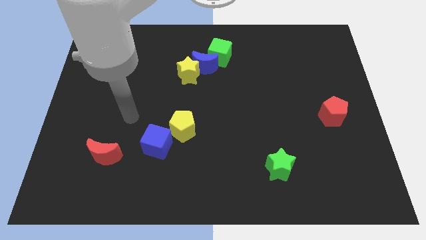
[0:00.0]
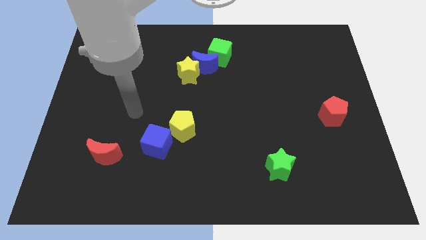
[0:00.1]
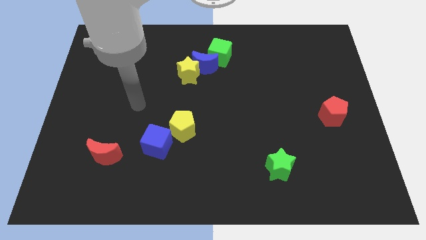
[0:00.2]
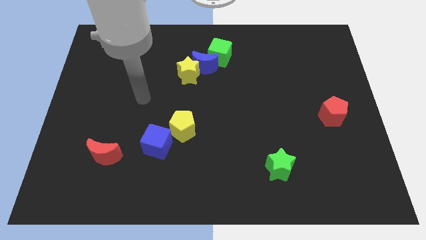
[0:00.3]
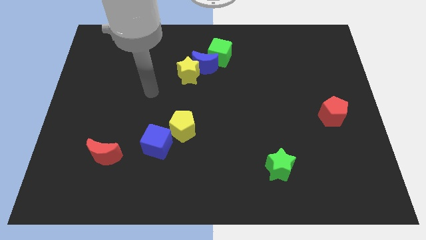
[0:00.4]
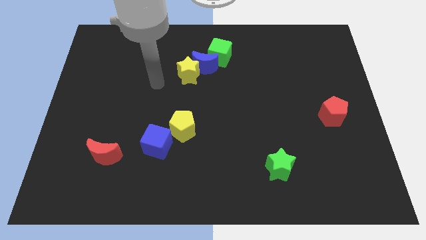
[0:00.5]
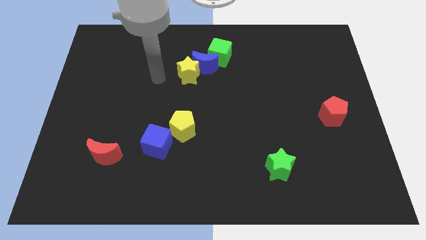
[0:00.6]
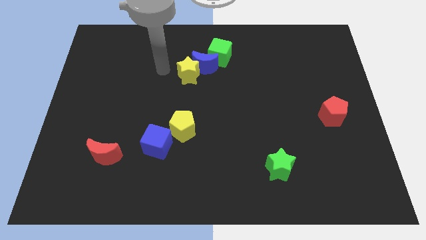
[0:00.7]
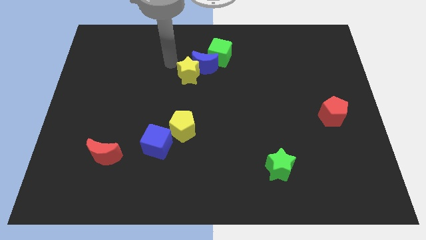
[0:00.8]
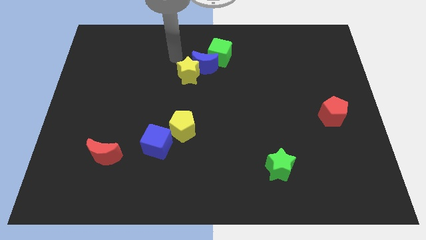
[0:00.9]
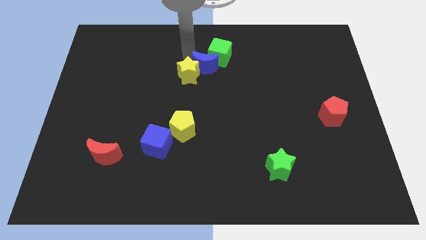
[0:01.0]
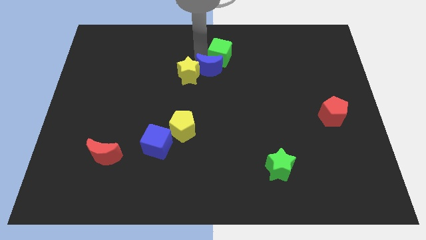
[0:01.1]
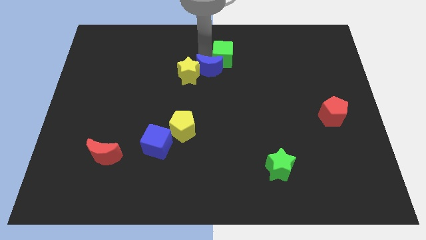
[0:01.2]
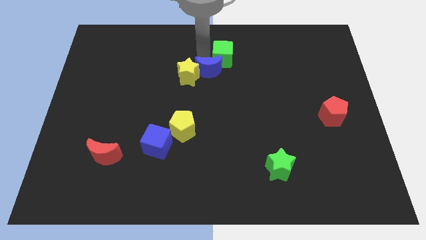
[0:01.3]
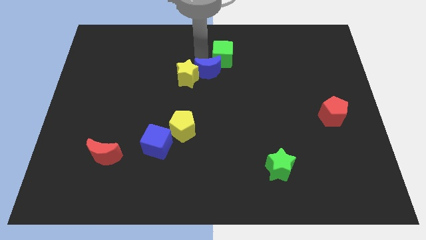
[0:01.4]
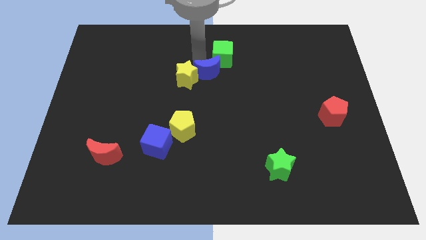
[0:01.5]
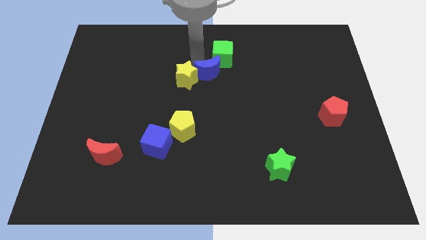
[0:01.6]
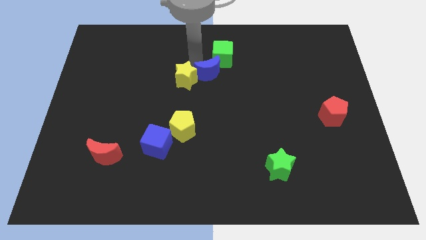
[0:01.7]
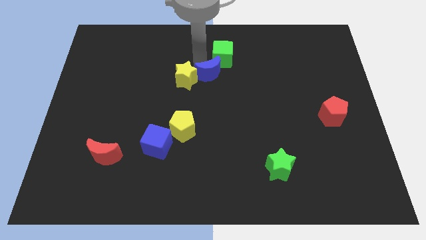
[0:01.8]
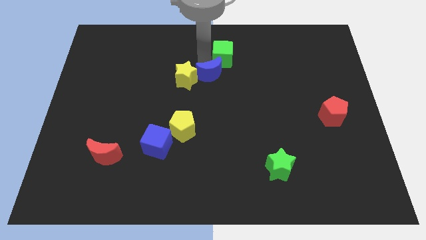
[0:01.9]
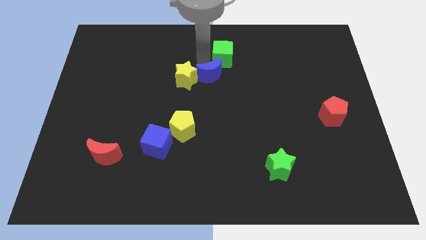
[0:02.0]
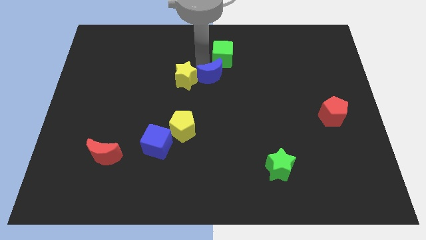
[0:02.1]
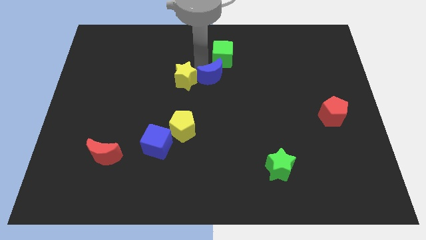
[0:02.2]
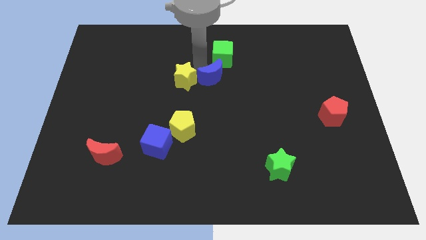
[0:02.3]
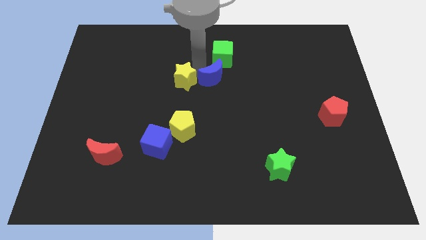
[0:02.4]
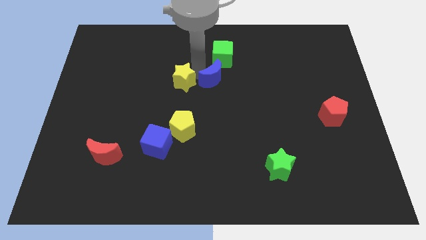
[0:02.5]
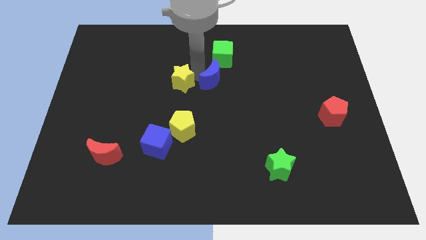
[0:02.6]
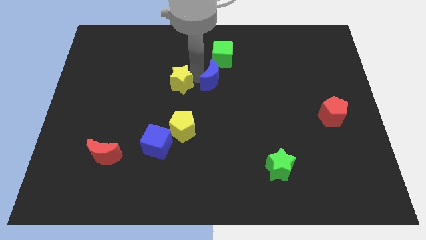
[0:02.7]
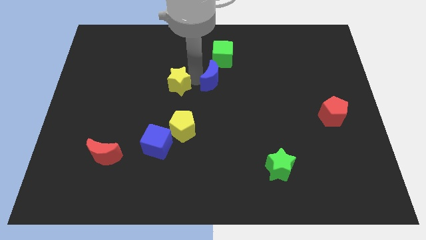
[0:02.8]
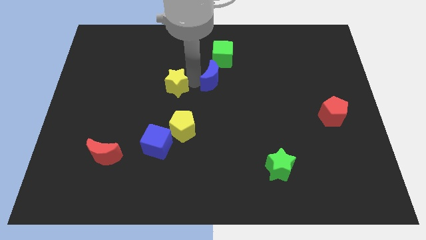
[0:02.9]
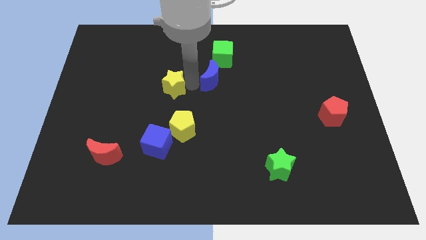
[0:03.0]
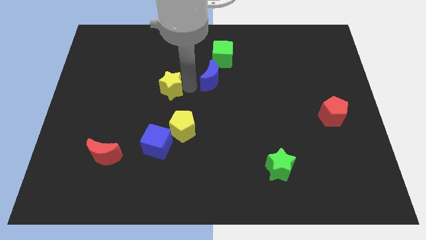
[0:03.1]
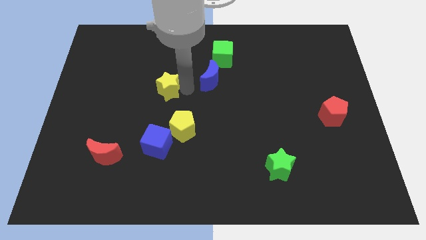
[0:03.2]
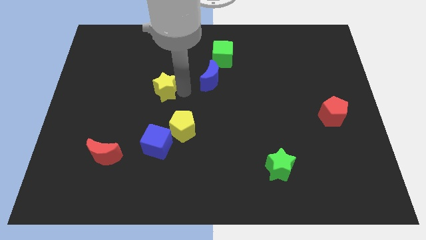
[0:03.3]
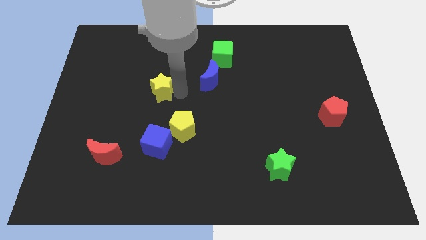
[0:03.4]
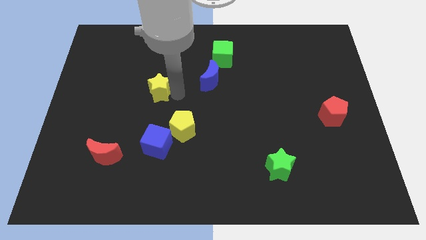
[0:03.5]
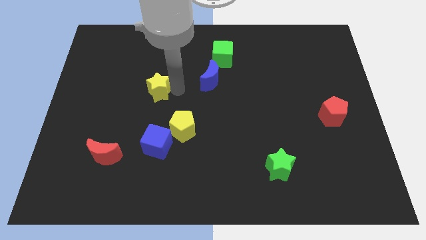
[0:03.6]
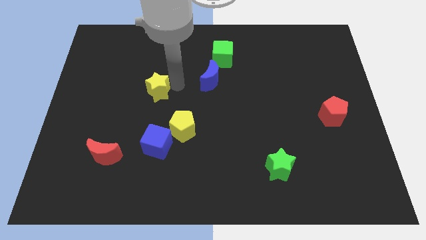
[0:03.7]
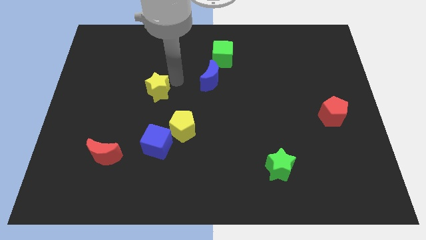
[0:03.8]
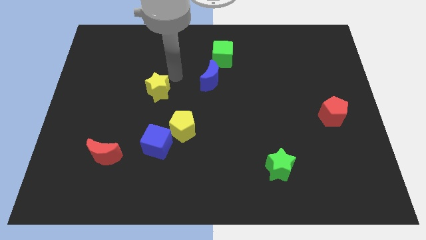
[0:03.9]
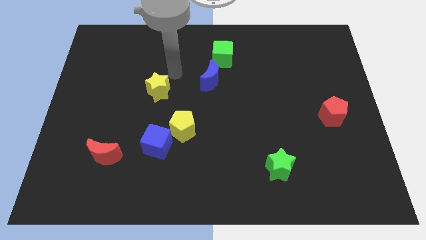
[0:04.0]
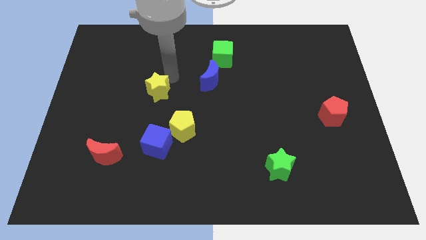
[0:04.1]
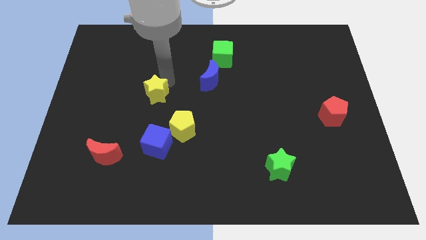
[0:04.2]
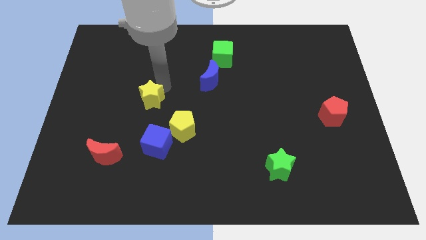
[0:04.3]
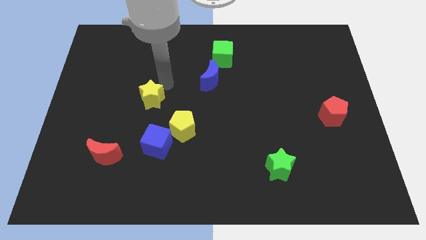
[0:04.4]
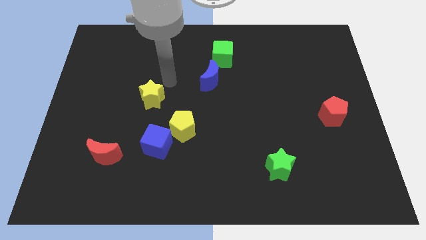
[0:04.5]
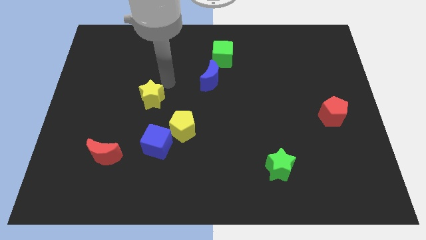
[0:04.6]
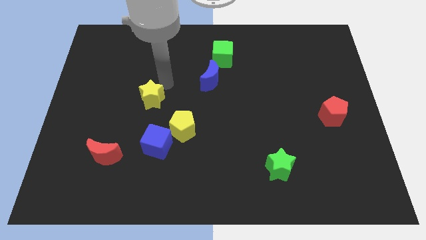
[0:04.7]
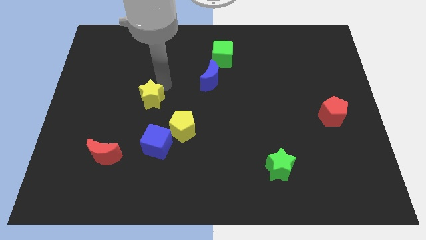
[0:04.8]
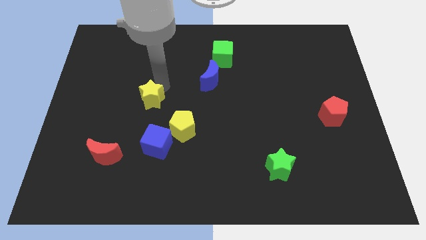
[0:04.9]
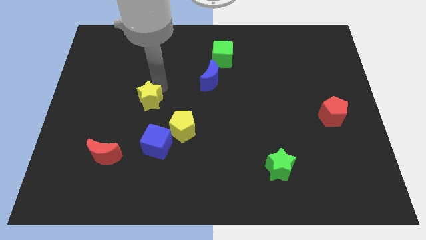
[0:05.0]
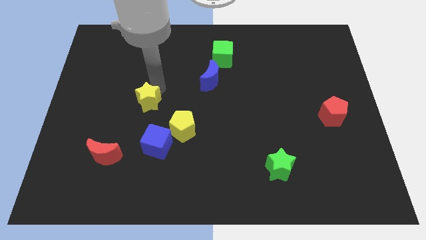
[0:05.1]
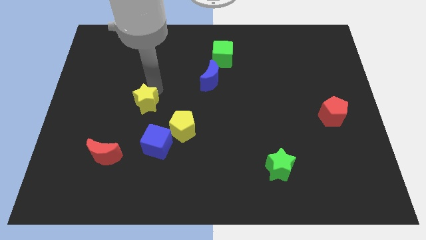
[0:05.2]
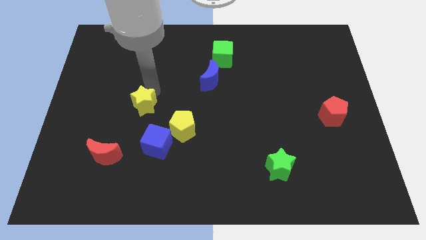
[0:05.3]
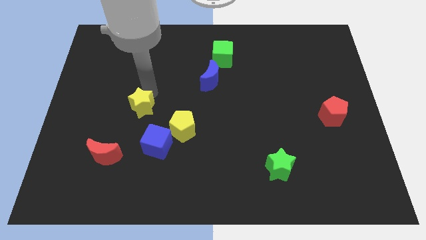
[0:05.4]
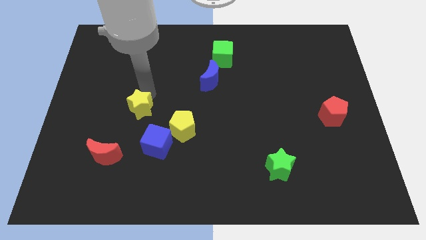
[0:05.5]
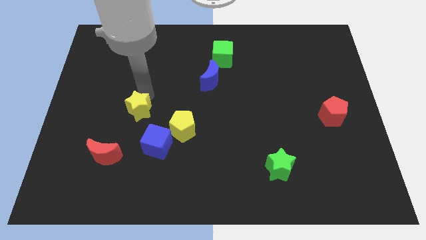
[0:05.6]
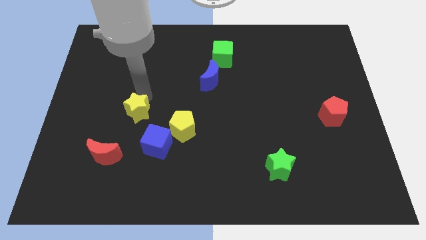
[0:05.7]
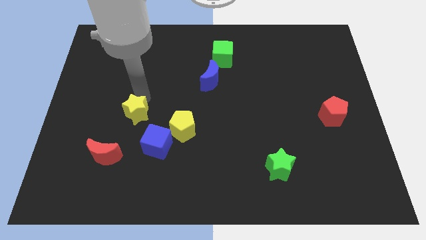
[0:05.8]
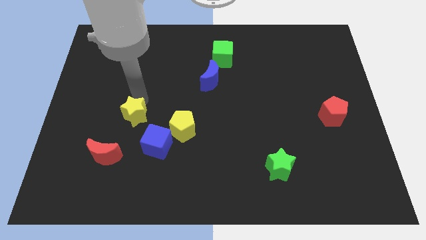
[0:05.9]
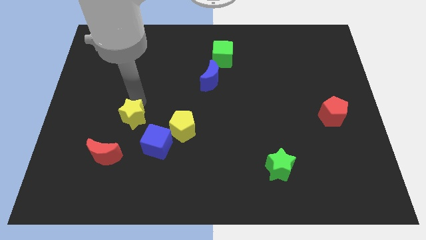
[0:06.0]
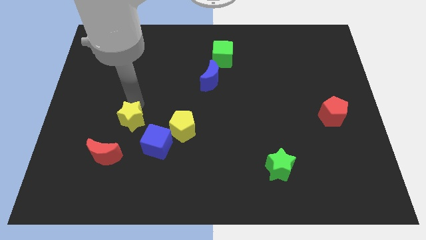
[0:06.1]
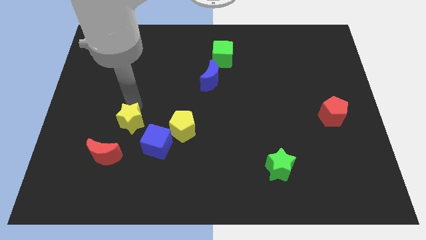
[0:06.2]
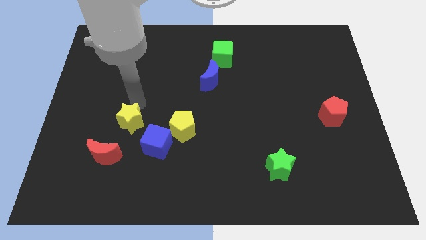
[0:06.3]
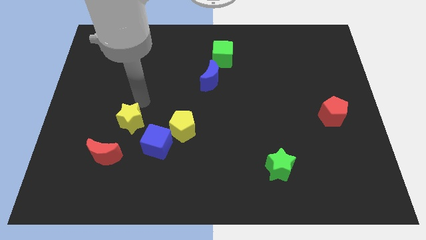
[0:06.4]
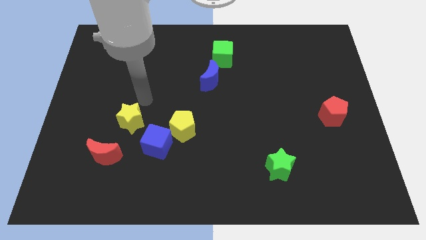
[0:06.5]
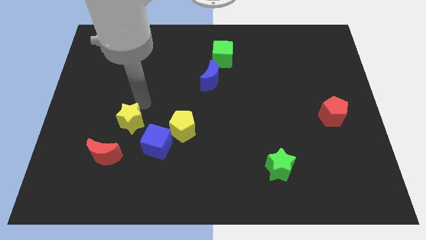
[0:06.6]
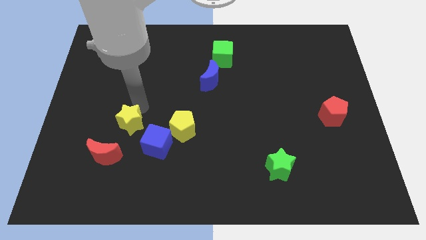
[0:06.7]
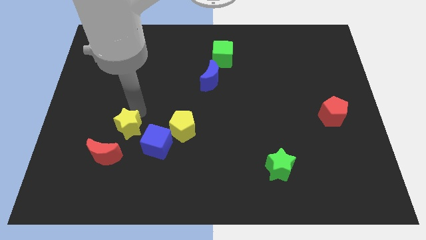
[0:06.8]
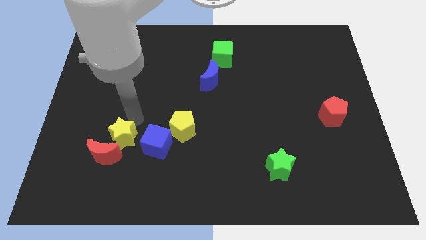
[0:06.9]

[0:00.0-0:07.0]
move the yellow star next to the red moon
